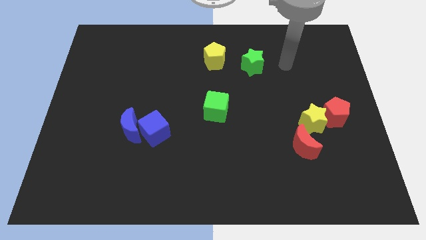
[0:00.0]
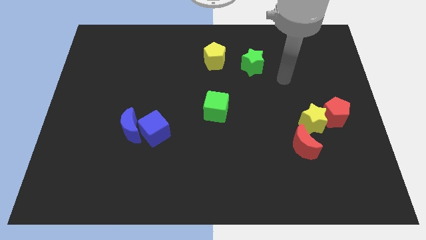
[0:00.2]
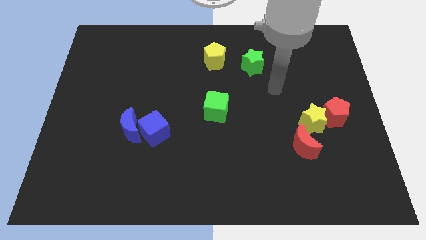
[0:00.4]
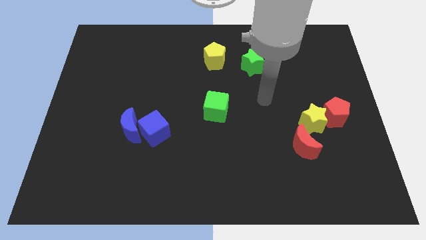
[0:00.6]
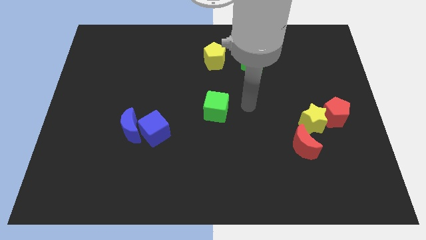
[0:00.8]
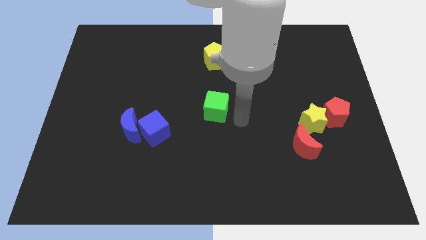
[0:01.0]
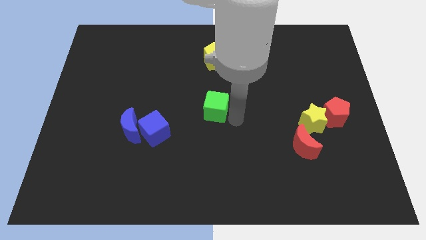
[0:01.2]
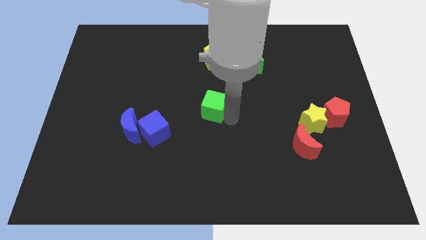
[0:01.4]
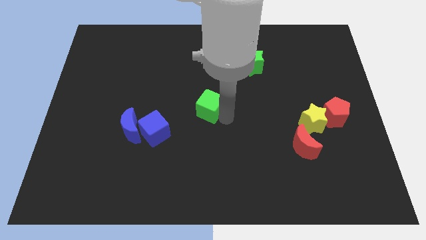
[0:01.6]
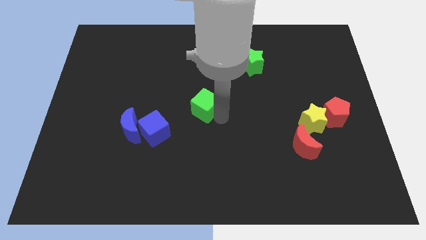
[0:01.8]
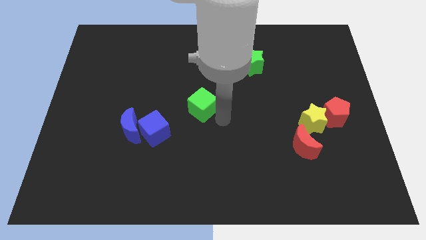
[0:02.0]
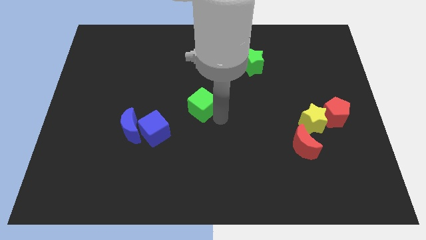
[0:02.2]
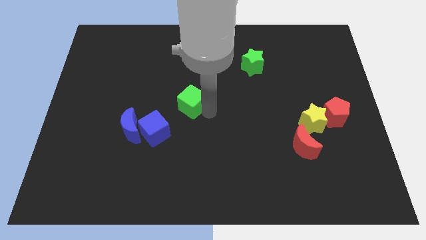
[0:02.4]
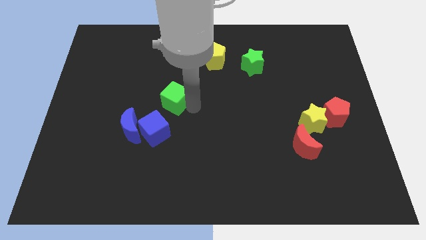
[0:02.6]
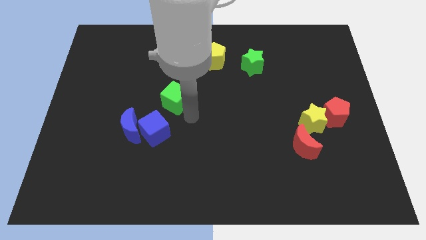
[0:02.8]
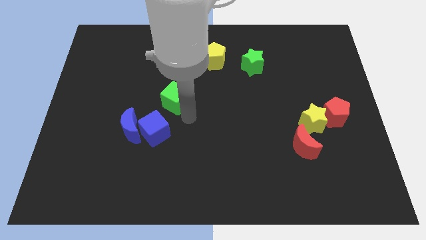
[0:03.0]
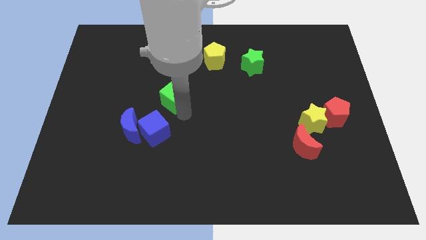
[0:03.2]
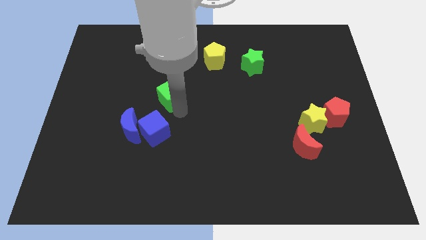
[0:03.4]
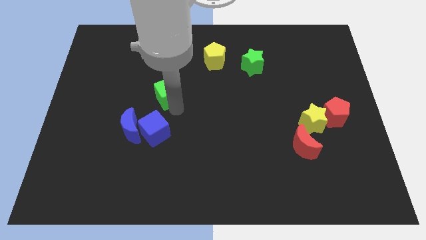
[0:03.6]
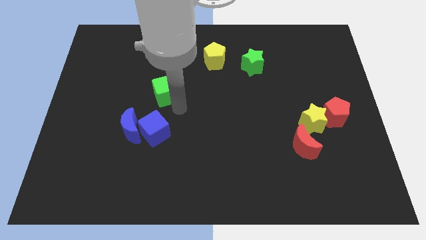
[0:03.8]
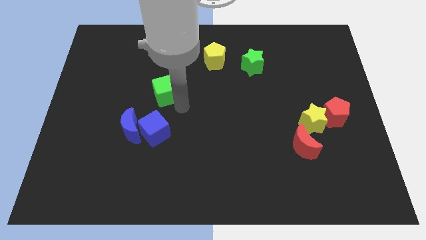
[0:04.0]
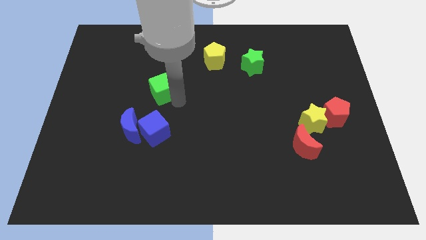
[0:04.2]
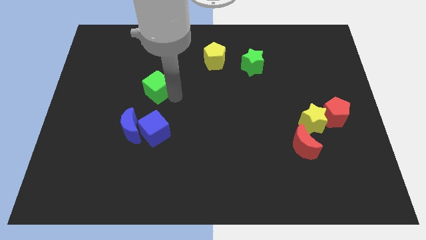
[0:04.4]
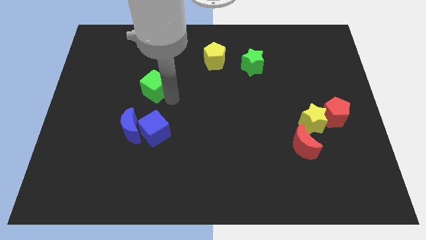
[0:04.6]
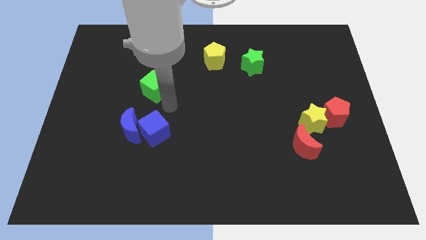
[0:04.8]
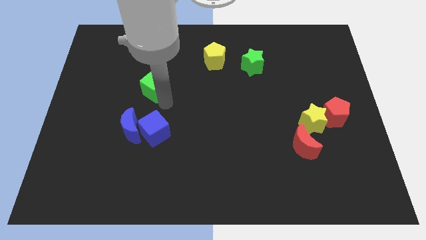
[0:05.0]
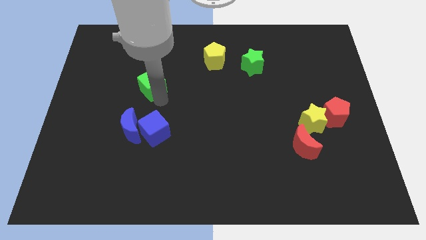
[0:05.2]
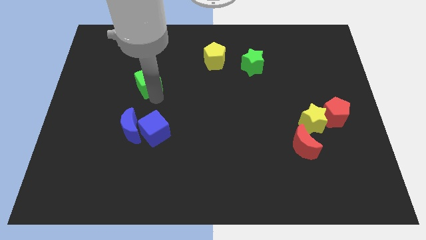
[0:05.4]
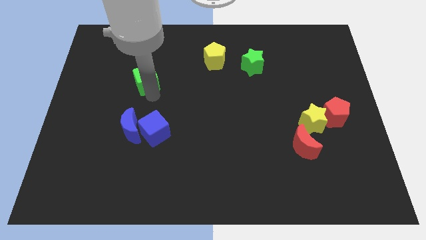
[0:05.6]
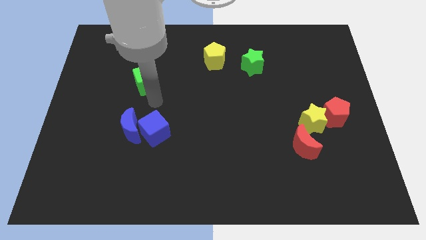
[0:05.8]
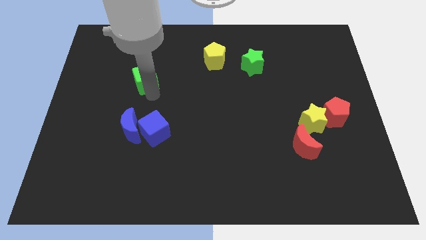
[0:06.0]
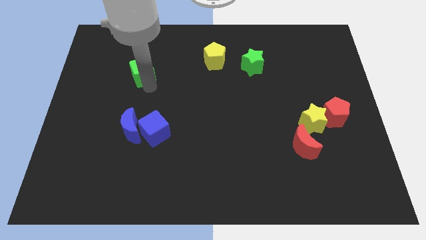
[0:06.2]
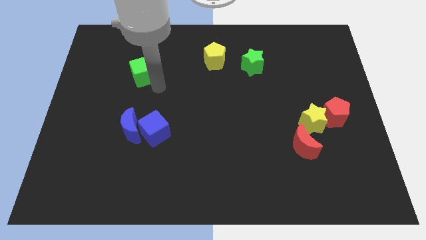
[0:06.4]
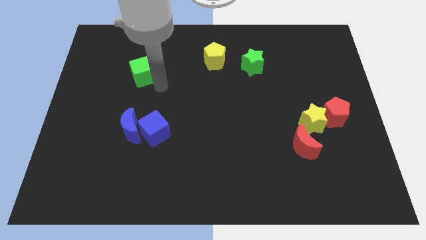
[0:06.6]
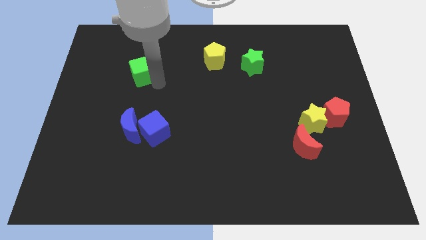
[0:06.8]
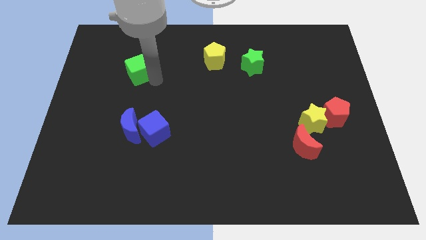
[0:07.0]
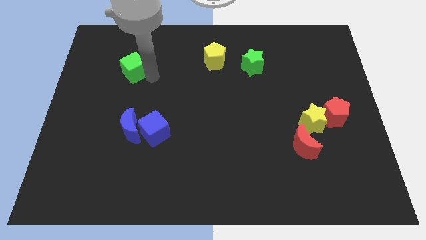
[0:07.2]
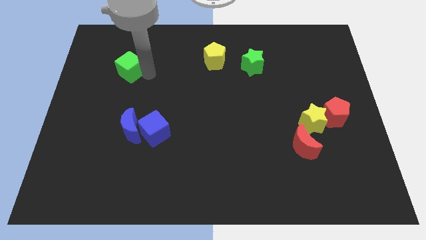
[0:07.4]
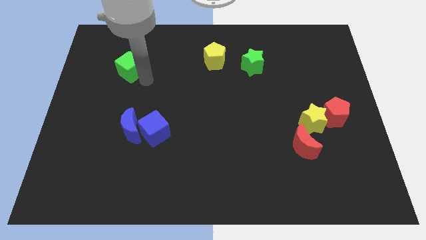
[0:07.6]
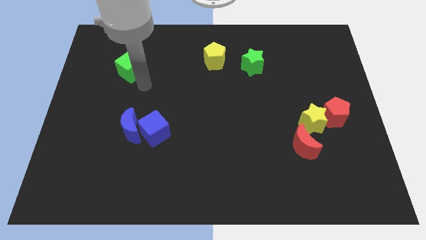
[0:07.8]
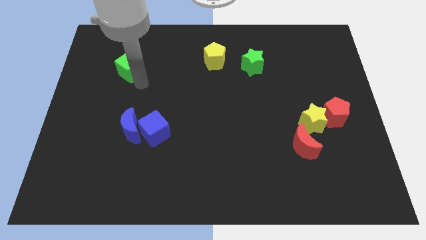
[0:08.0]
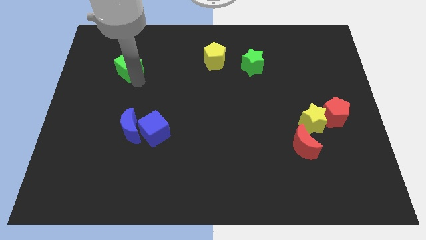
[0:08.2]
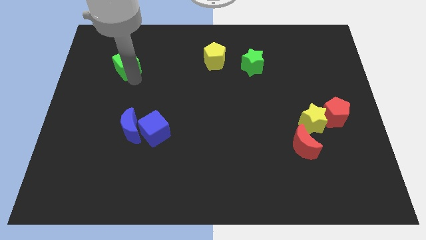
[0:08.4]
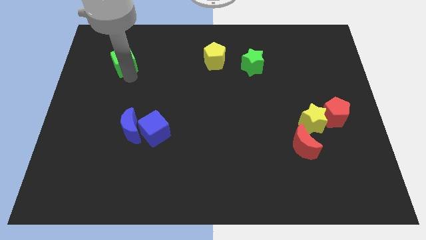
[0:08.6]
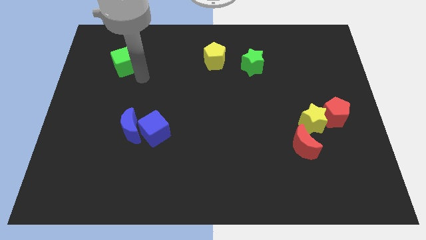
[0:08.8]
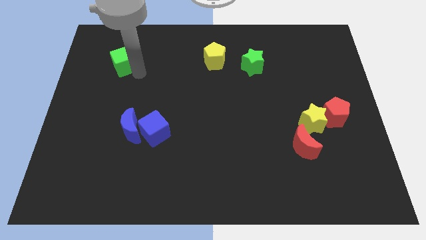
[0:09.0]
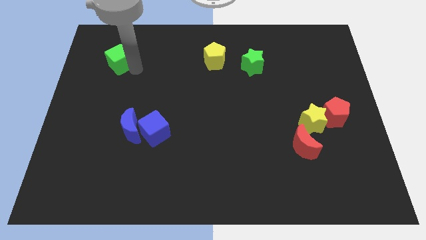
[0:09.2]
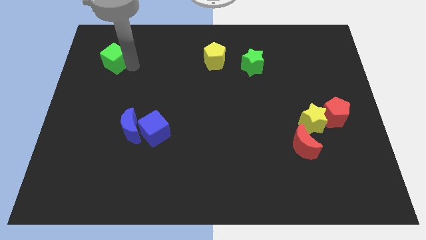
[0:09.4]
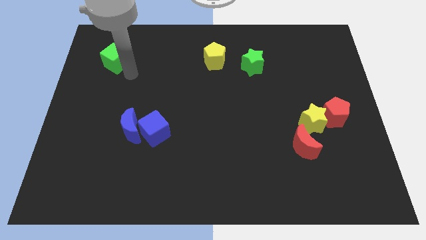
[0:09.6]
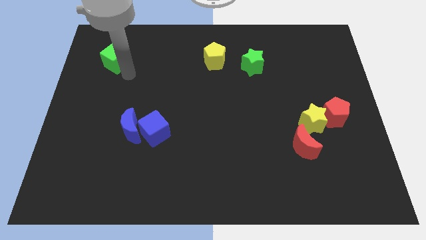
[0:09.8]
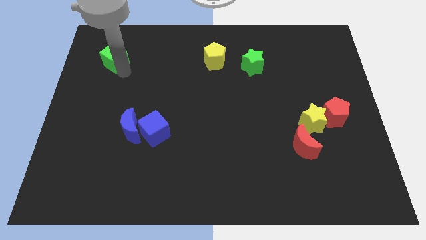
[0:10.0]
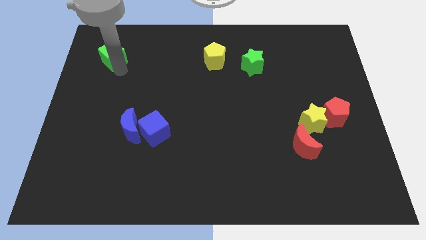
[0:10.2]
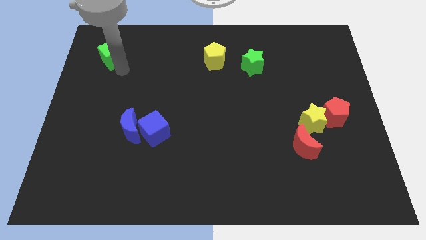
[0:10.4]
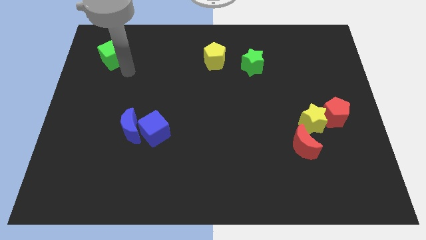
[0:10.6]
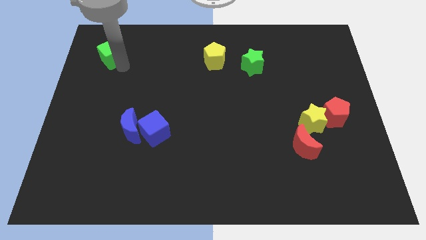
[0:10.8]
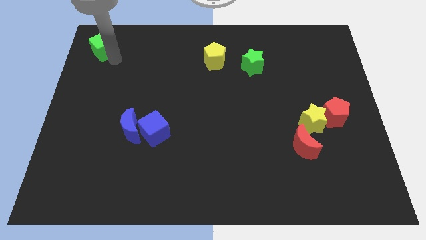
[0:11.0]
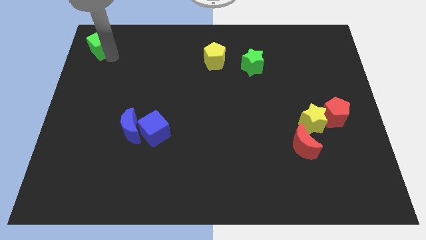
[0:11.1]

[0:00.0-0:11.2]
move the green cube to the top left corner

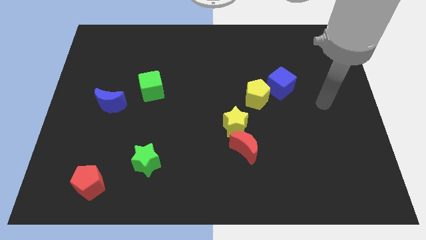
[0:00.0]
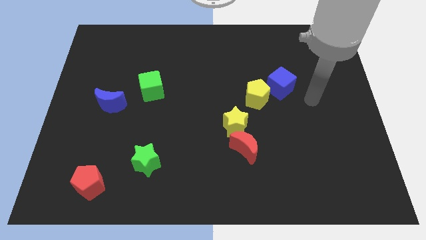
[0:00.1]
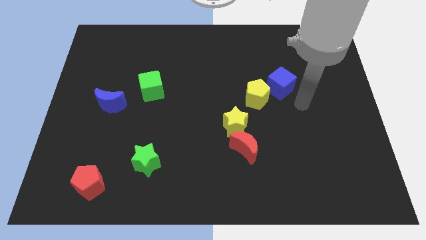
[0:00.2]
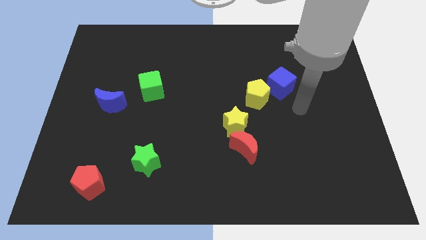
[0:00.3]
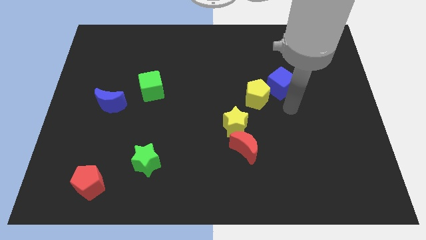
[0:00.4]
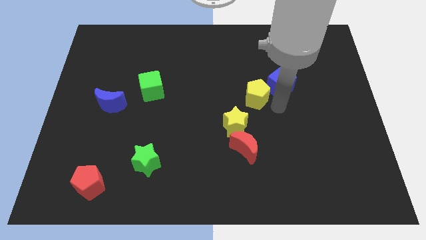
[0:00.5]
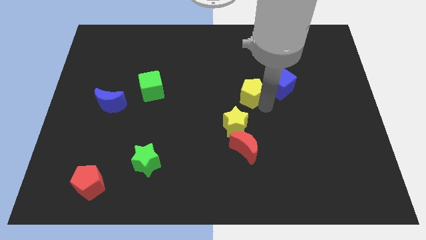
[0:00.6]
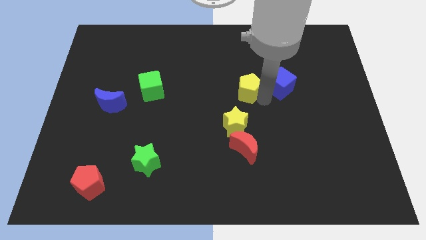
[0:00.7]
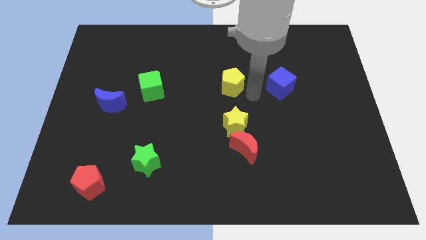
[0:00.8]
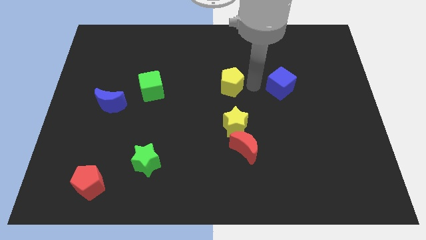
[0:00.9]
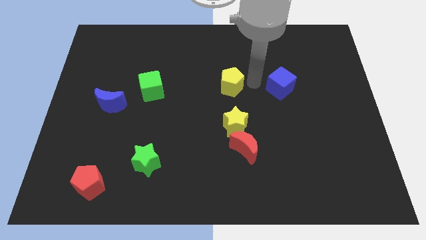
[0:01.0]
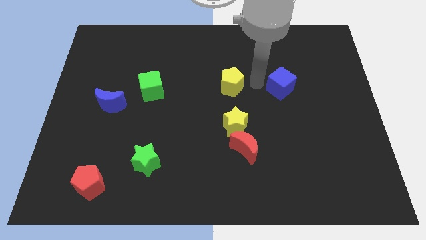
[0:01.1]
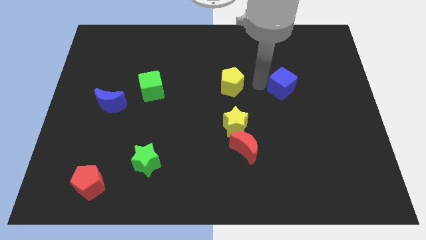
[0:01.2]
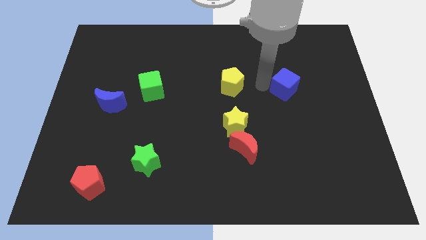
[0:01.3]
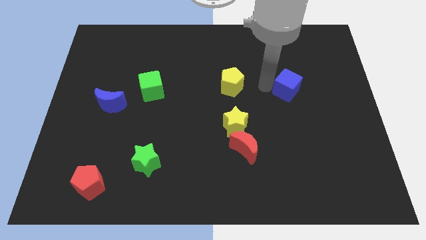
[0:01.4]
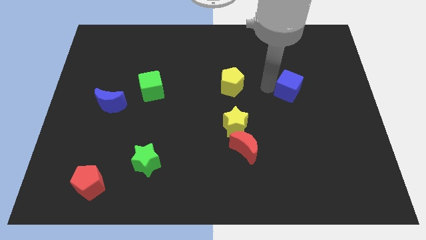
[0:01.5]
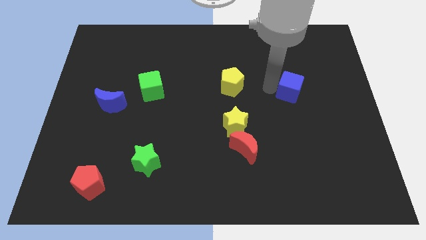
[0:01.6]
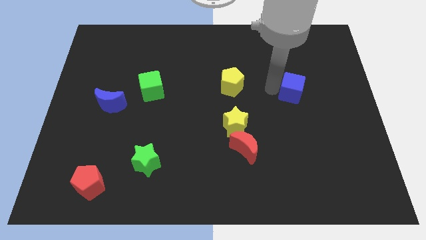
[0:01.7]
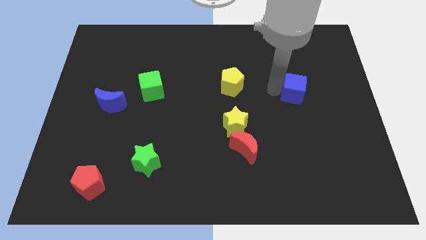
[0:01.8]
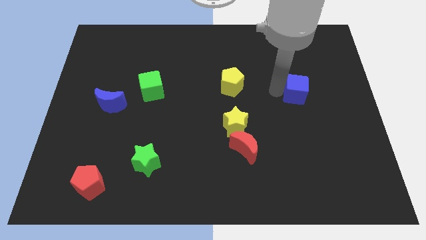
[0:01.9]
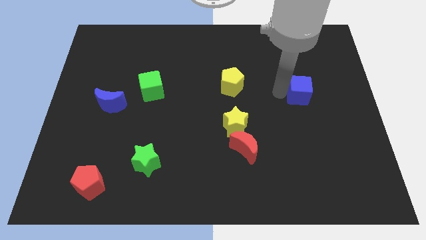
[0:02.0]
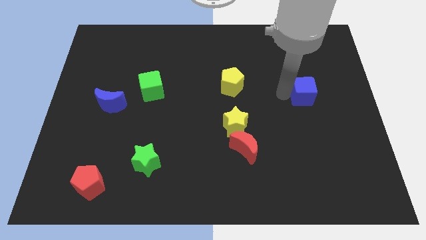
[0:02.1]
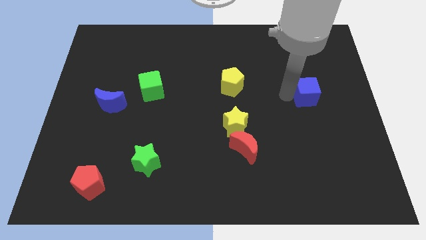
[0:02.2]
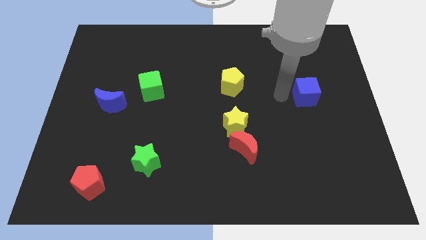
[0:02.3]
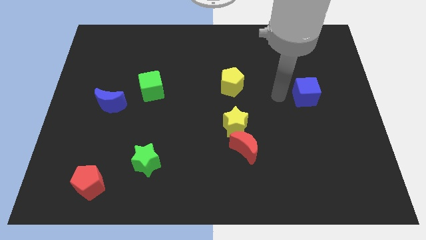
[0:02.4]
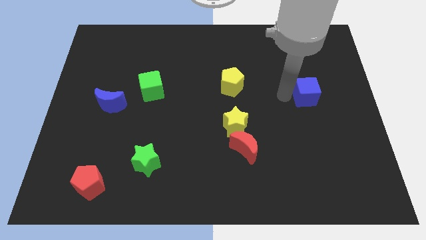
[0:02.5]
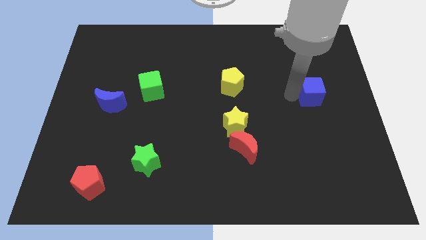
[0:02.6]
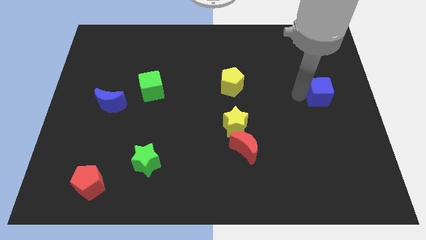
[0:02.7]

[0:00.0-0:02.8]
push the blue cube to the right side of the board
